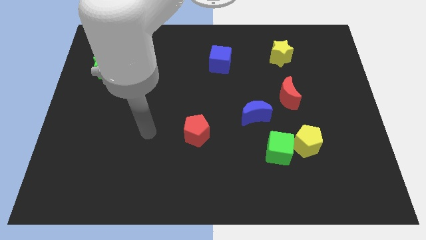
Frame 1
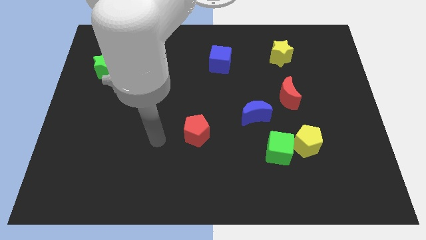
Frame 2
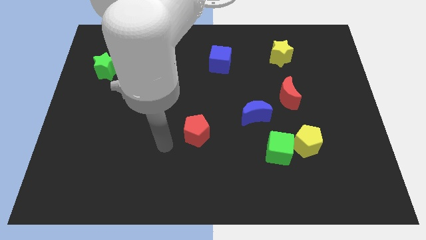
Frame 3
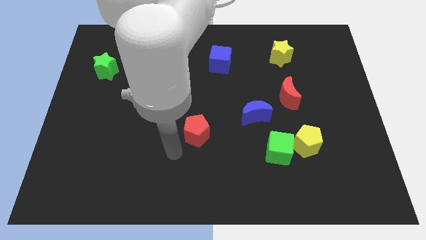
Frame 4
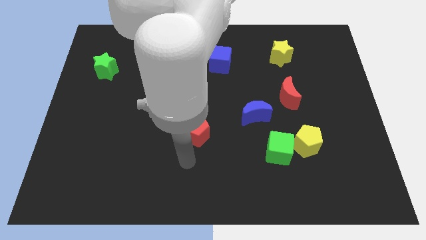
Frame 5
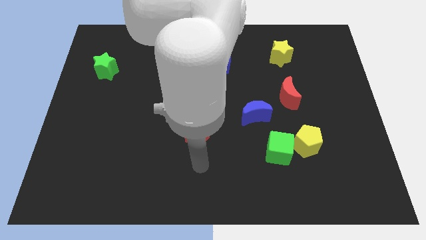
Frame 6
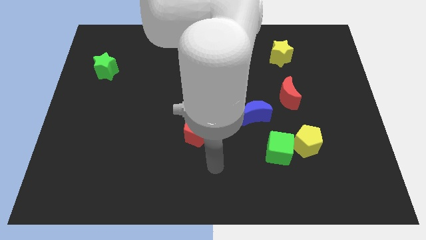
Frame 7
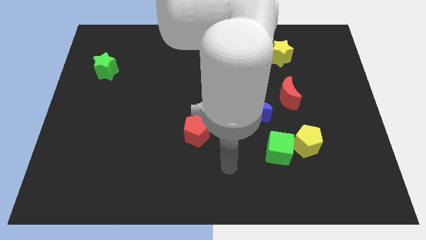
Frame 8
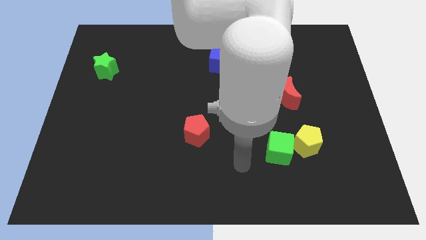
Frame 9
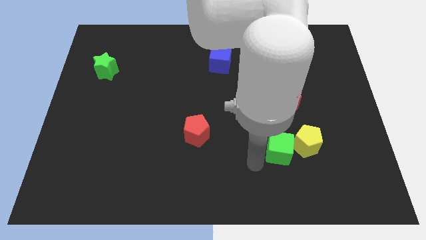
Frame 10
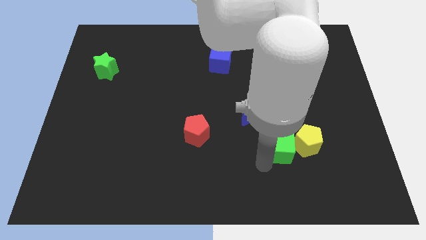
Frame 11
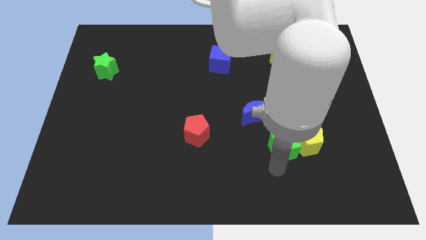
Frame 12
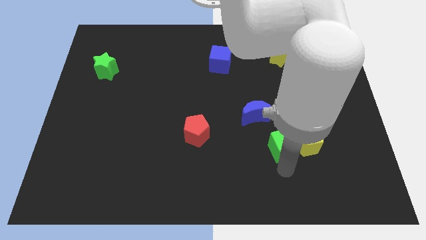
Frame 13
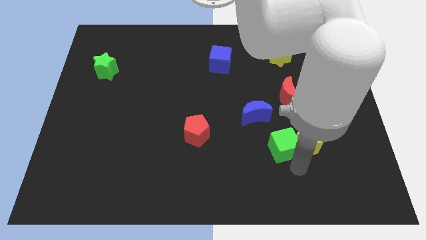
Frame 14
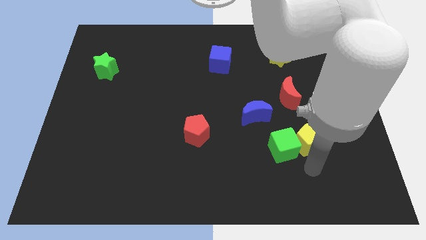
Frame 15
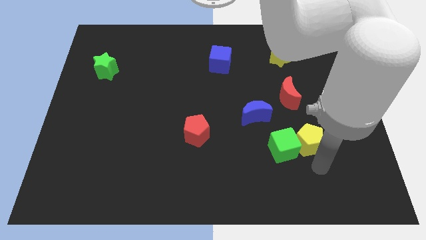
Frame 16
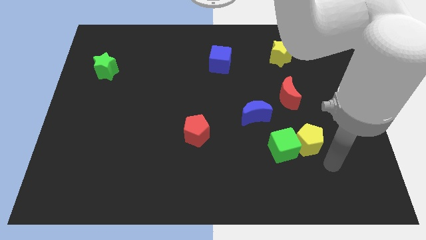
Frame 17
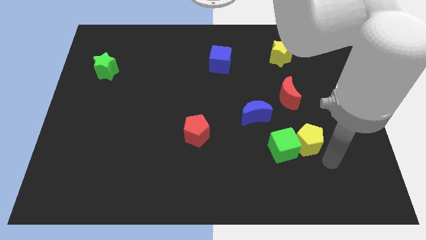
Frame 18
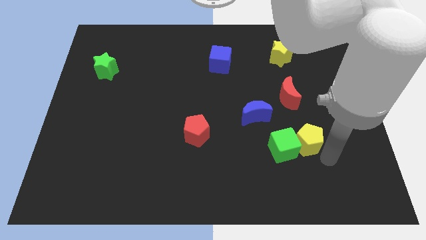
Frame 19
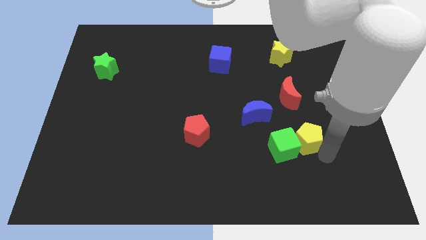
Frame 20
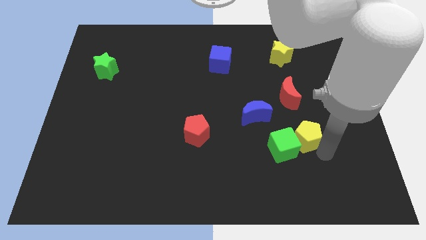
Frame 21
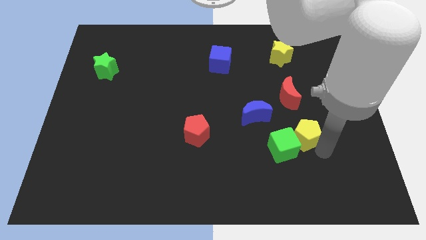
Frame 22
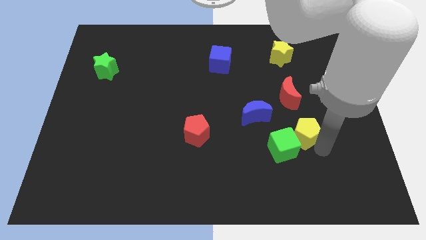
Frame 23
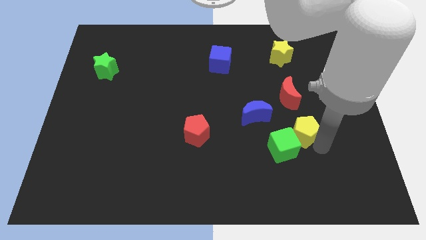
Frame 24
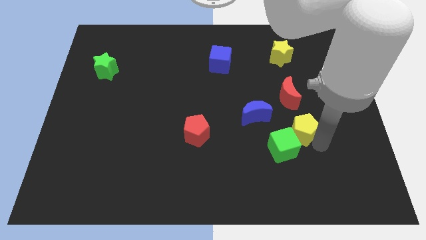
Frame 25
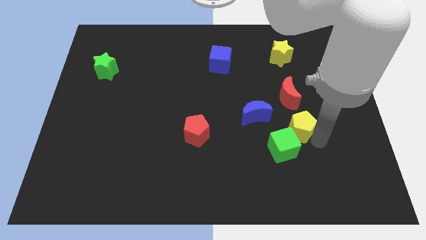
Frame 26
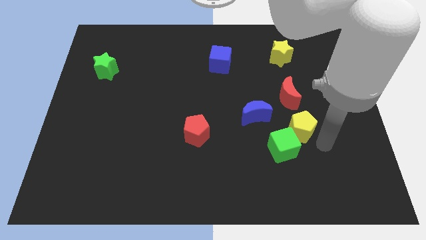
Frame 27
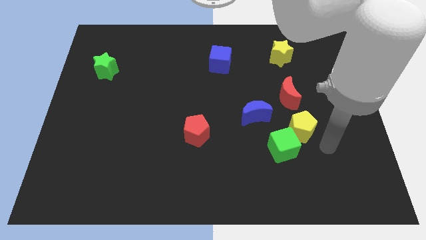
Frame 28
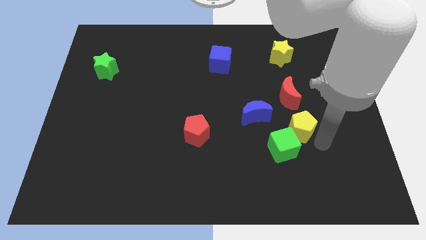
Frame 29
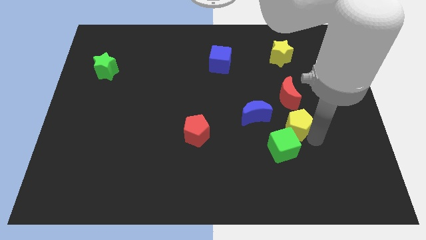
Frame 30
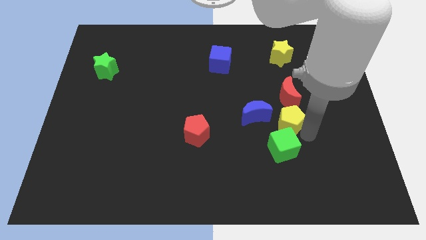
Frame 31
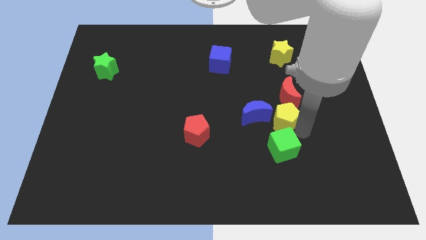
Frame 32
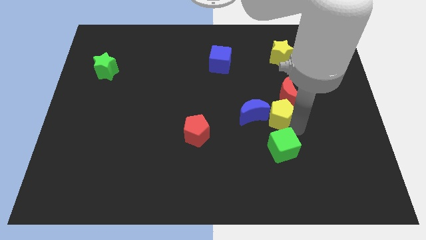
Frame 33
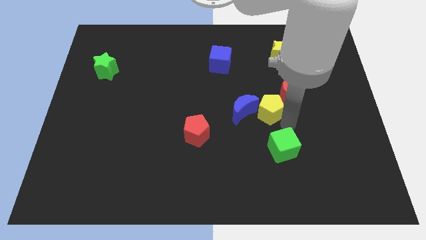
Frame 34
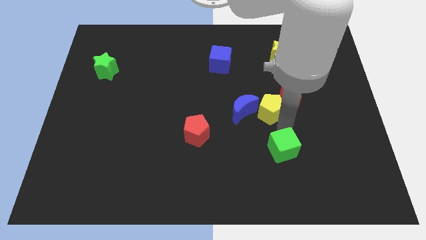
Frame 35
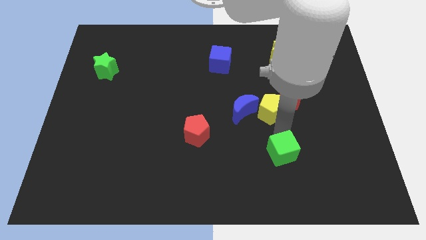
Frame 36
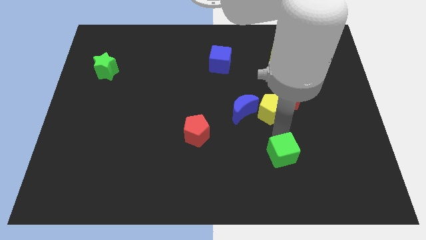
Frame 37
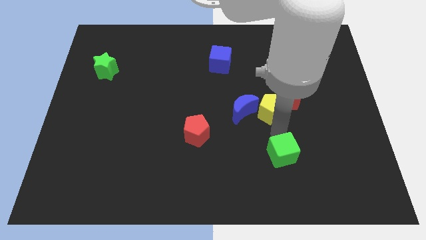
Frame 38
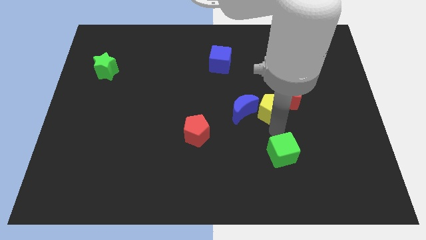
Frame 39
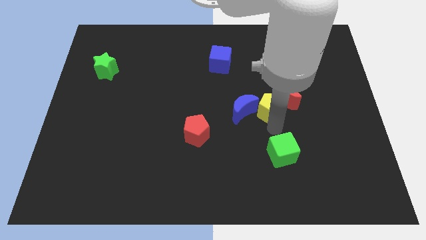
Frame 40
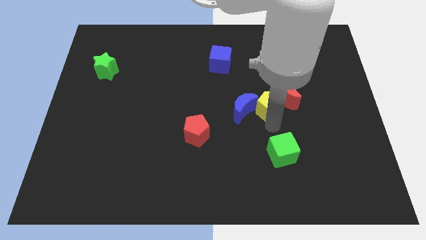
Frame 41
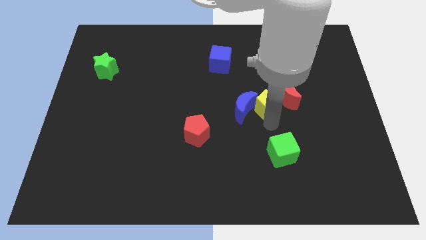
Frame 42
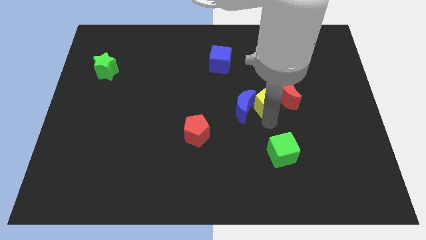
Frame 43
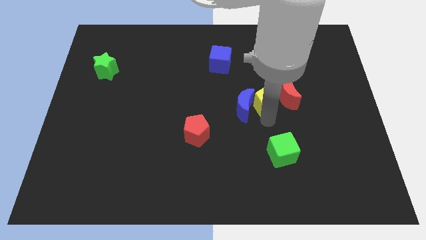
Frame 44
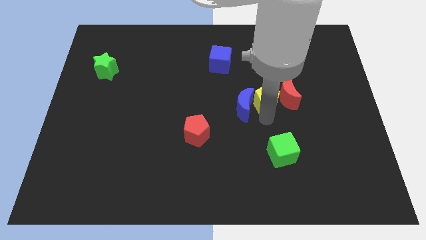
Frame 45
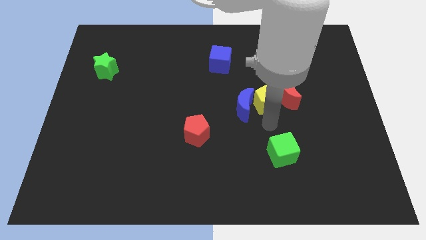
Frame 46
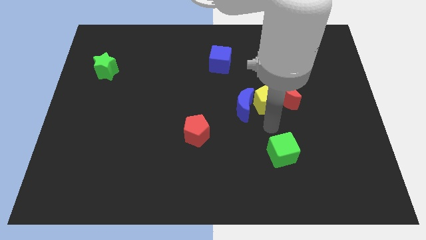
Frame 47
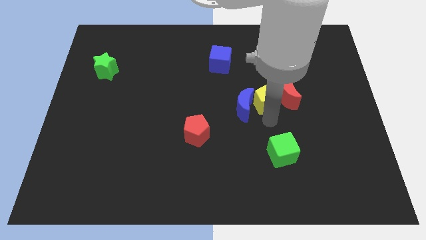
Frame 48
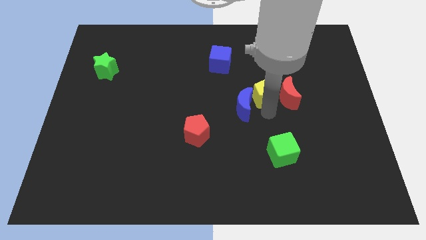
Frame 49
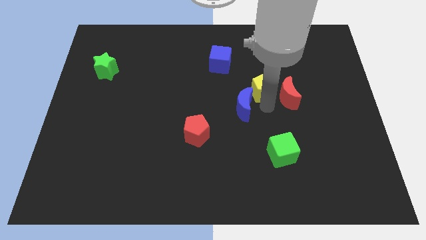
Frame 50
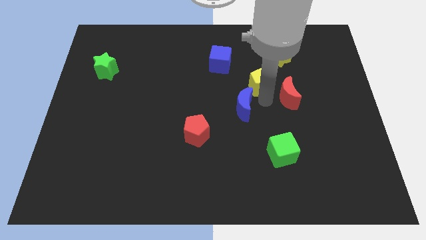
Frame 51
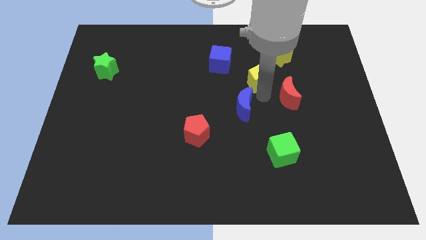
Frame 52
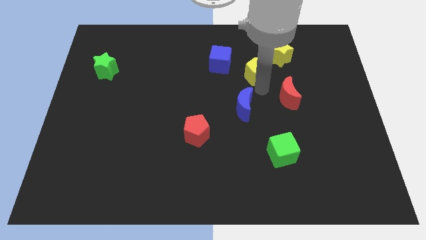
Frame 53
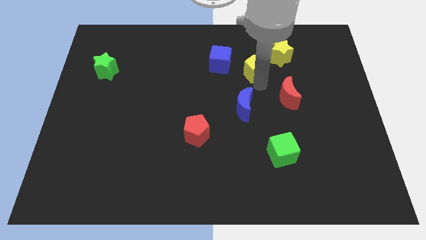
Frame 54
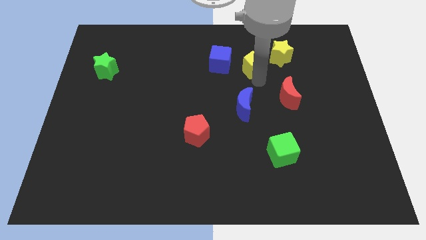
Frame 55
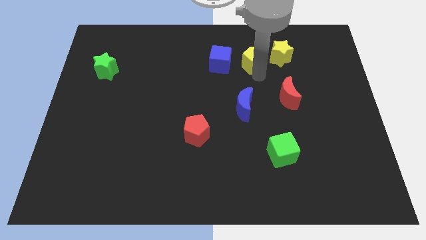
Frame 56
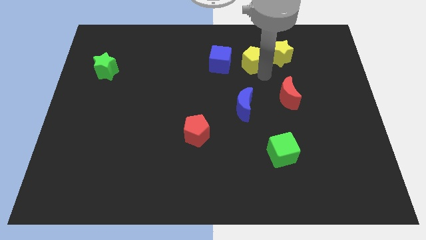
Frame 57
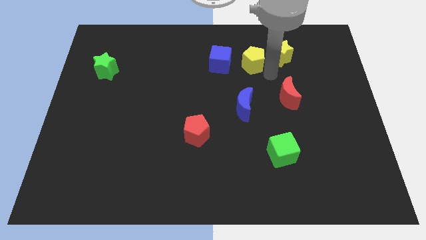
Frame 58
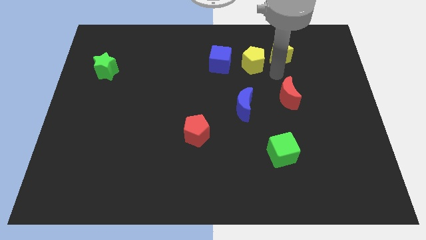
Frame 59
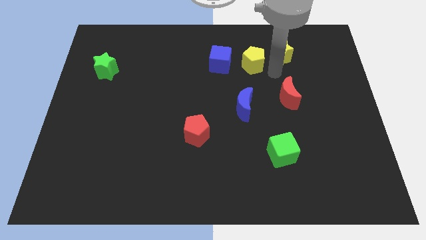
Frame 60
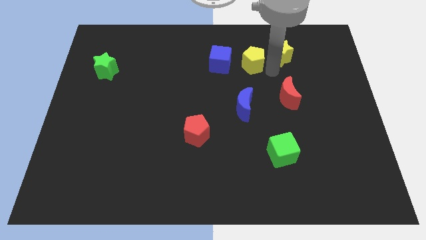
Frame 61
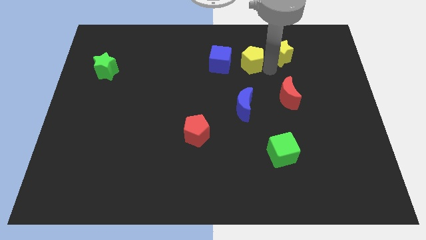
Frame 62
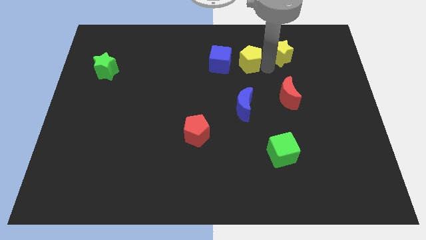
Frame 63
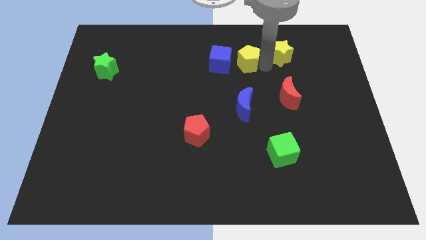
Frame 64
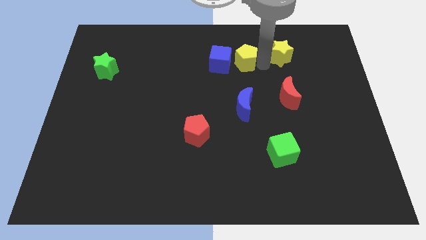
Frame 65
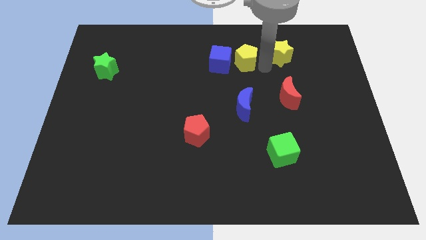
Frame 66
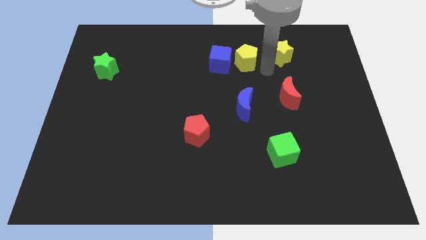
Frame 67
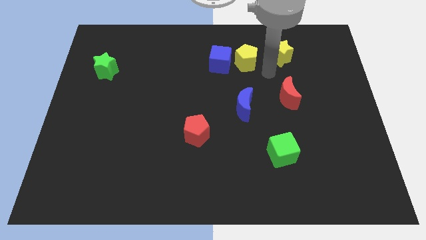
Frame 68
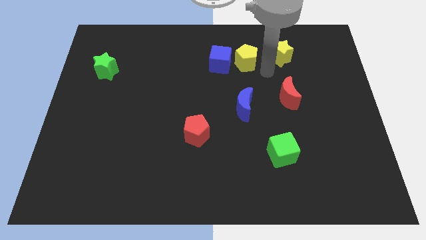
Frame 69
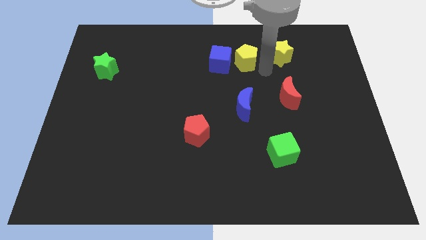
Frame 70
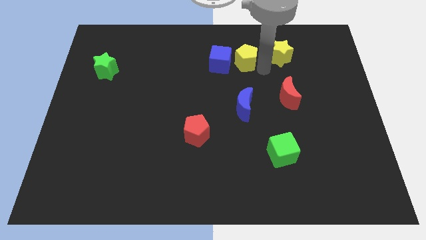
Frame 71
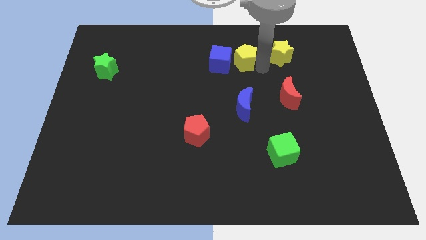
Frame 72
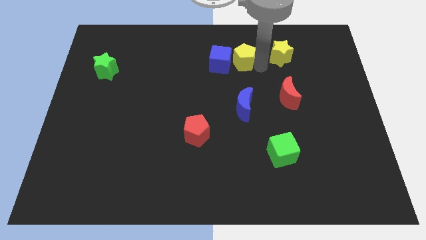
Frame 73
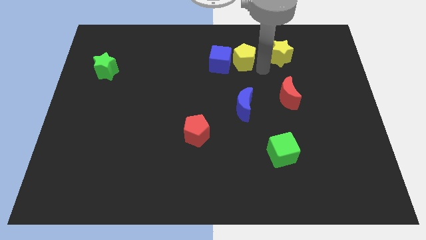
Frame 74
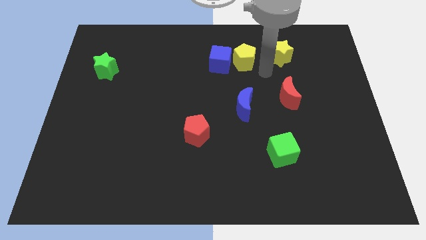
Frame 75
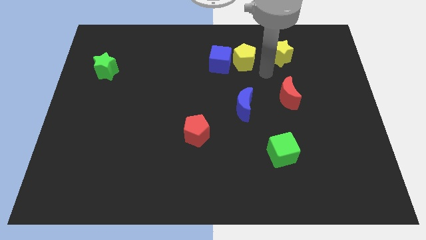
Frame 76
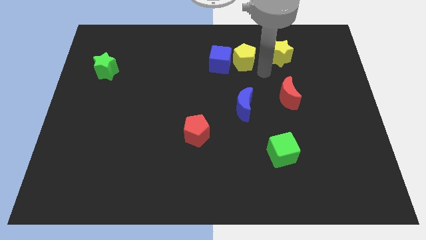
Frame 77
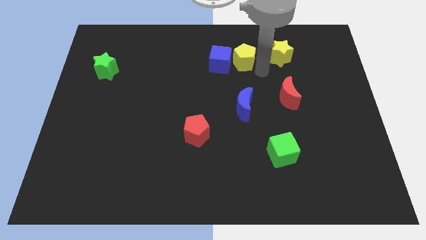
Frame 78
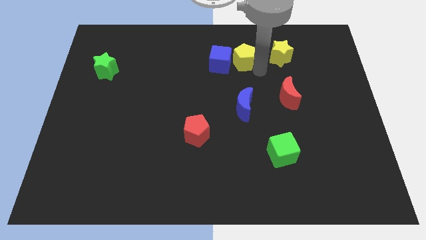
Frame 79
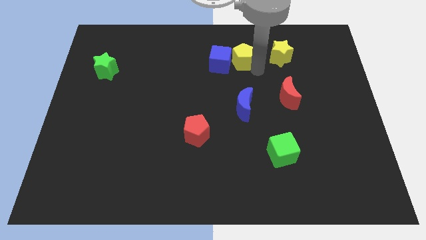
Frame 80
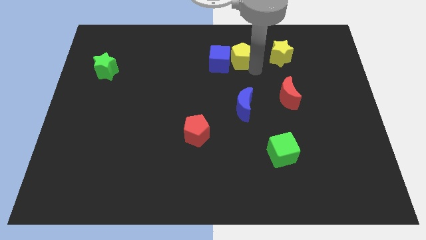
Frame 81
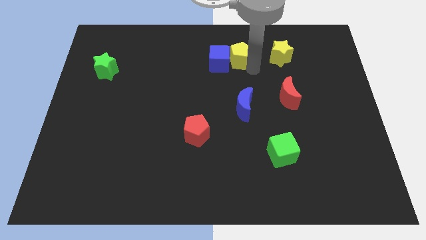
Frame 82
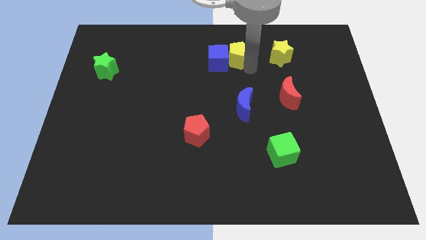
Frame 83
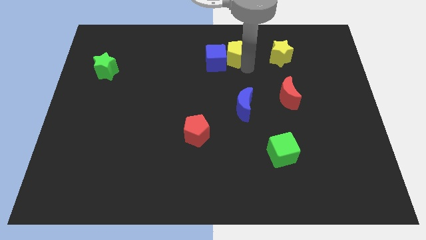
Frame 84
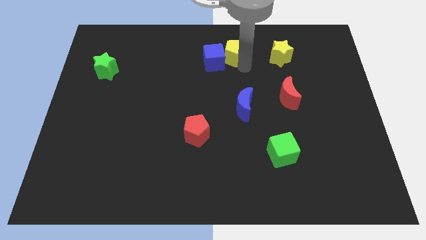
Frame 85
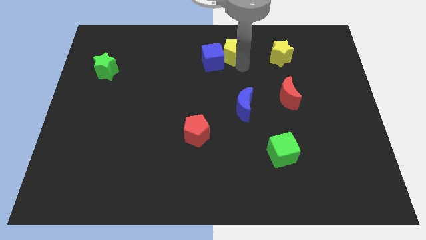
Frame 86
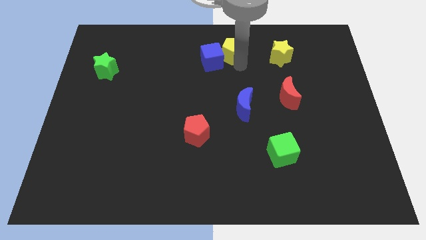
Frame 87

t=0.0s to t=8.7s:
push the yellow pentagon to the top side
